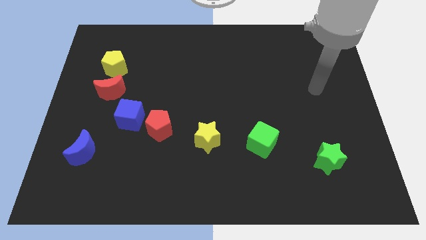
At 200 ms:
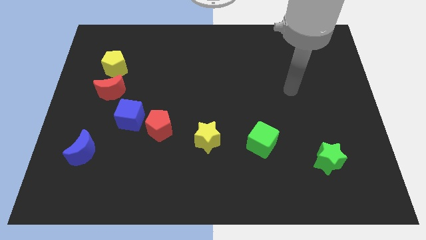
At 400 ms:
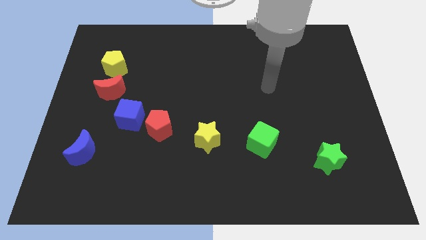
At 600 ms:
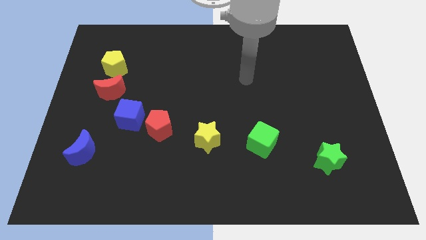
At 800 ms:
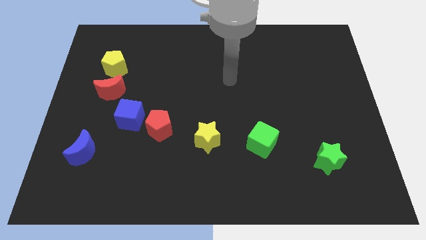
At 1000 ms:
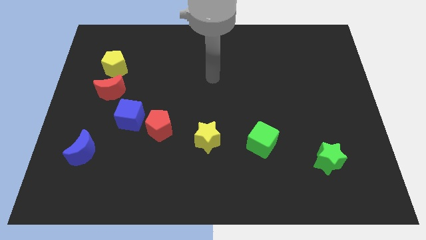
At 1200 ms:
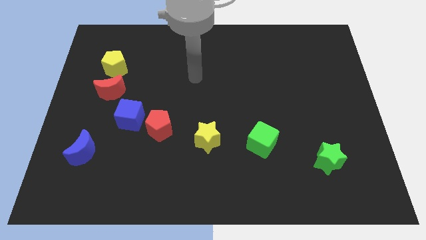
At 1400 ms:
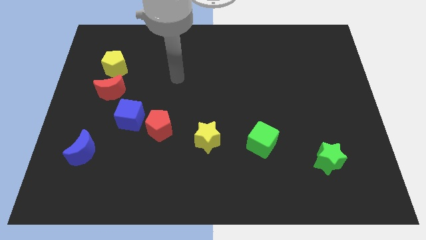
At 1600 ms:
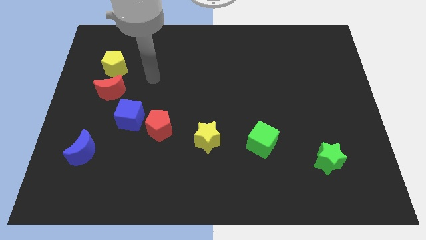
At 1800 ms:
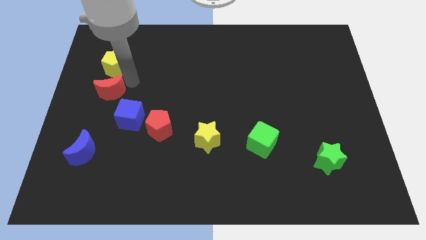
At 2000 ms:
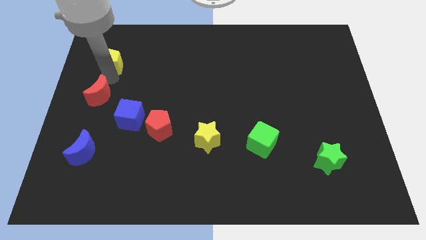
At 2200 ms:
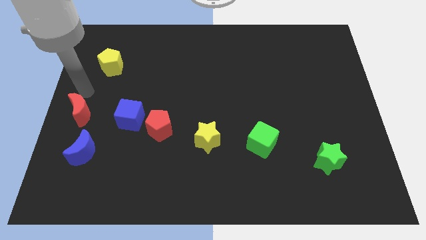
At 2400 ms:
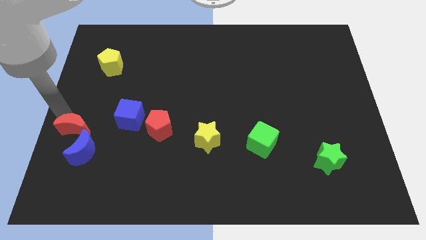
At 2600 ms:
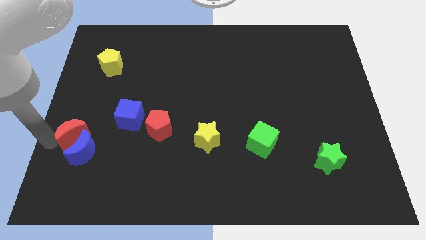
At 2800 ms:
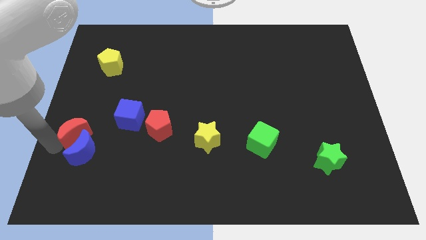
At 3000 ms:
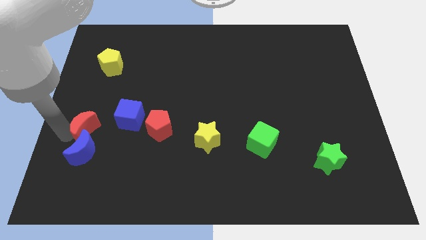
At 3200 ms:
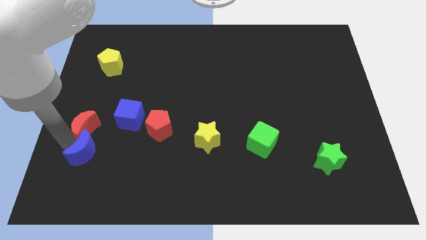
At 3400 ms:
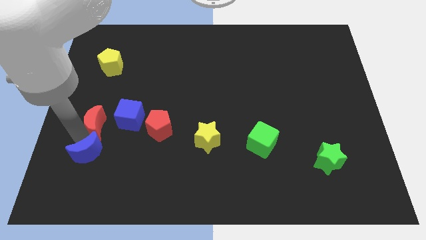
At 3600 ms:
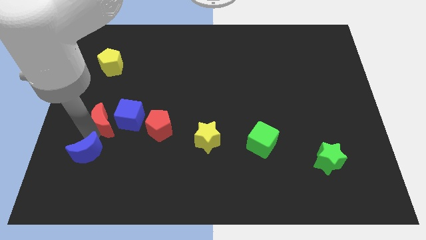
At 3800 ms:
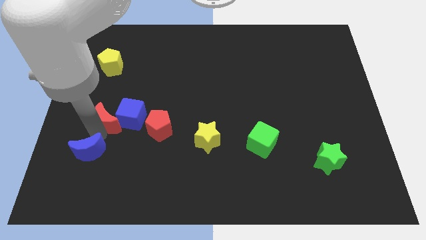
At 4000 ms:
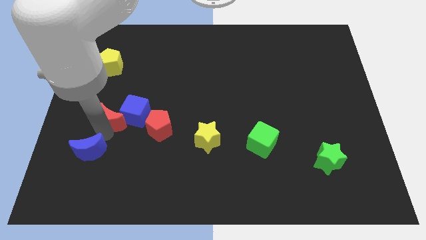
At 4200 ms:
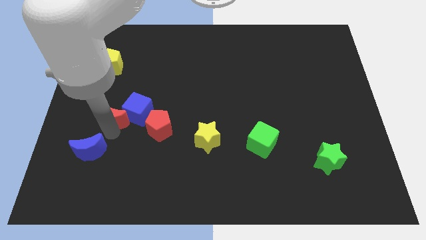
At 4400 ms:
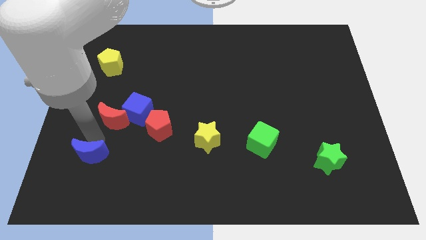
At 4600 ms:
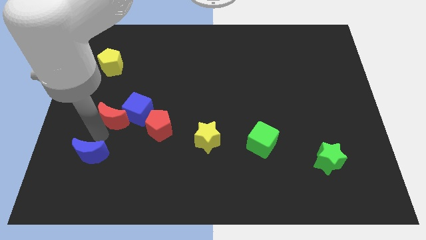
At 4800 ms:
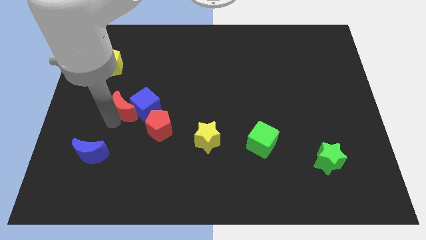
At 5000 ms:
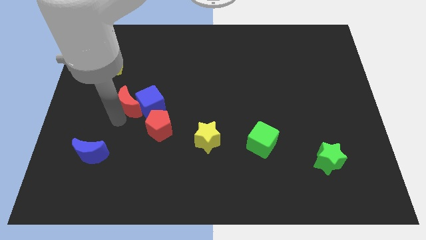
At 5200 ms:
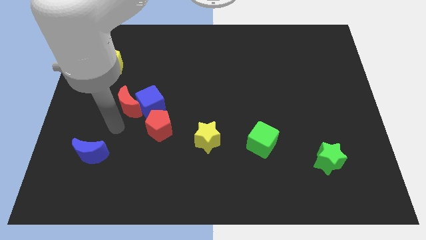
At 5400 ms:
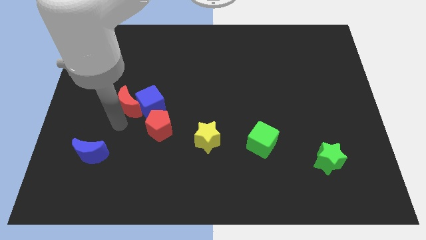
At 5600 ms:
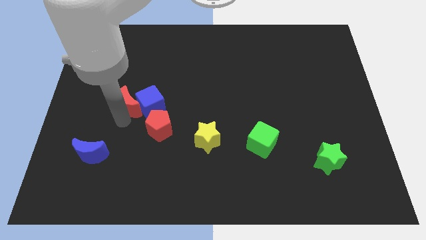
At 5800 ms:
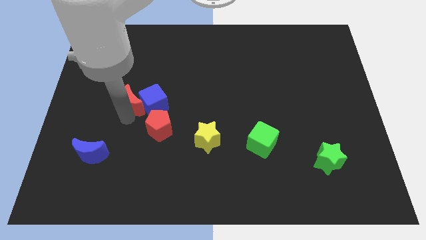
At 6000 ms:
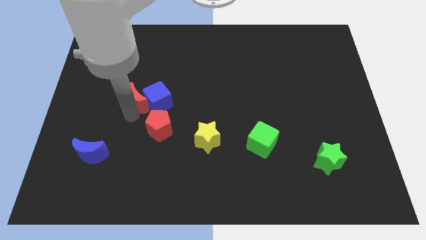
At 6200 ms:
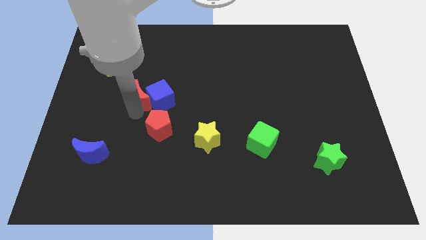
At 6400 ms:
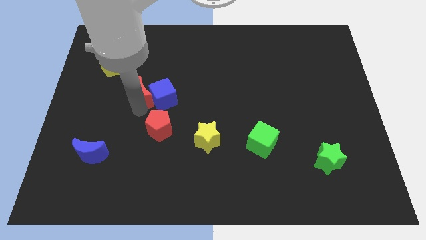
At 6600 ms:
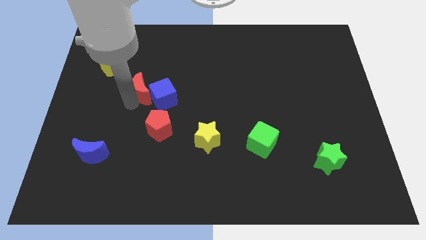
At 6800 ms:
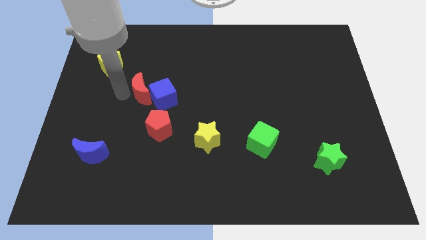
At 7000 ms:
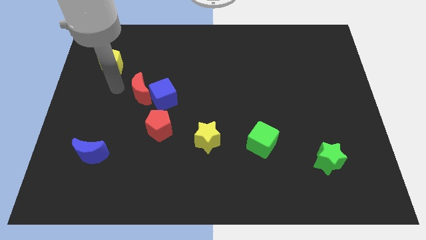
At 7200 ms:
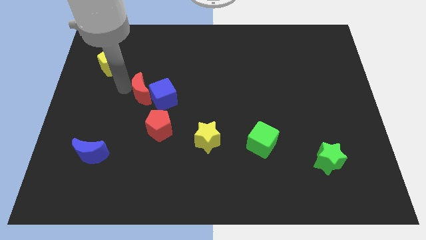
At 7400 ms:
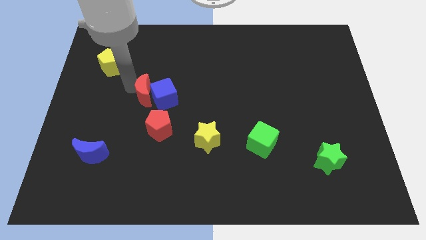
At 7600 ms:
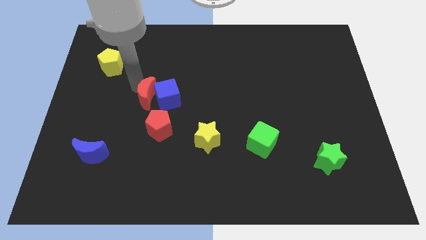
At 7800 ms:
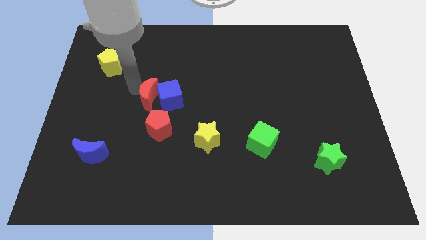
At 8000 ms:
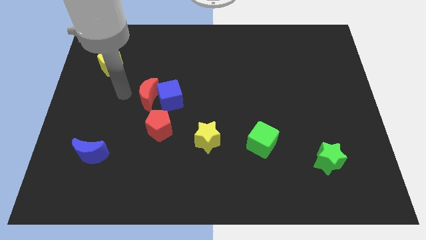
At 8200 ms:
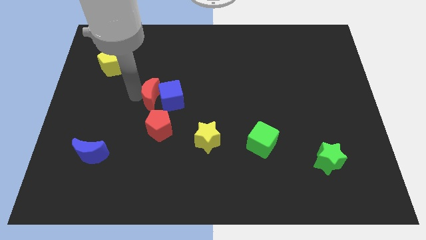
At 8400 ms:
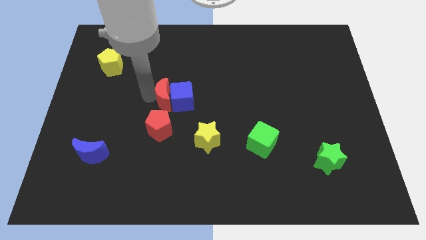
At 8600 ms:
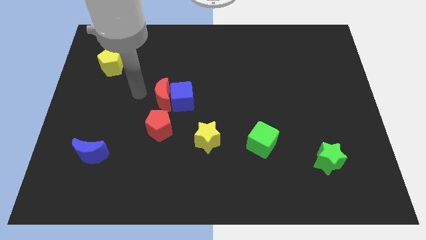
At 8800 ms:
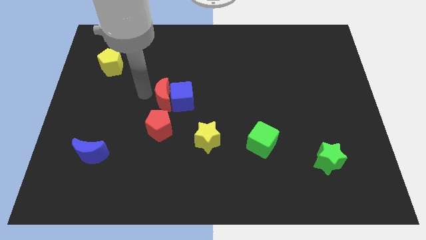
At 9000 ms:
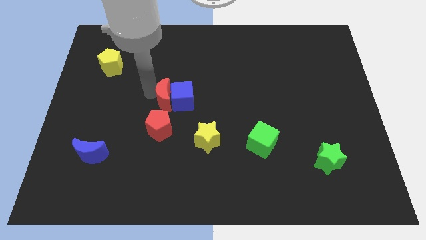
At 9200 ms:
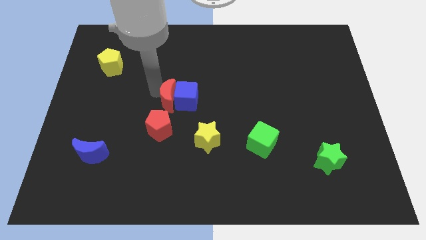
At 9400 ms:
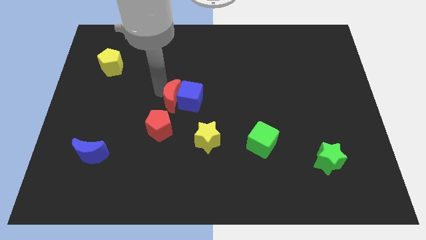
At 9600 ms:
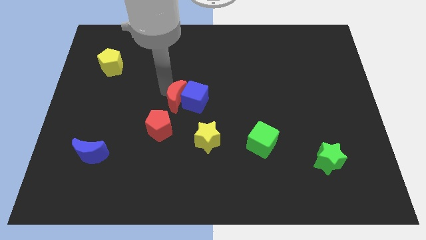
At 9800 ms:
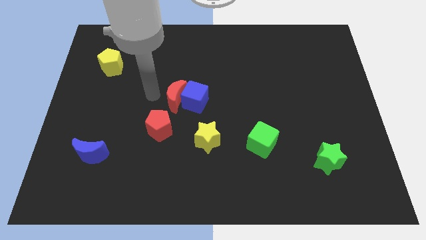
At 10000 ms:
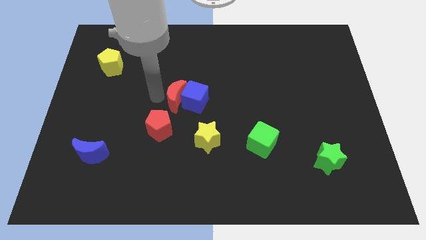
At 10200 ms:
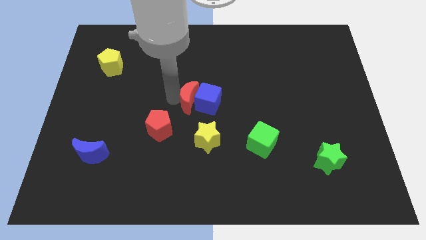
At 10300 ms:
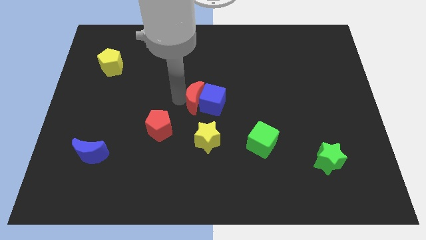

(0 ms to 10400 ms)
push the red moon to the right

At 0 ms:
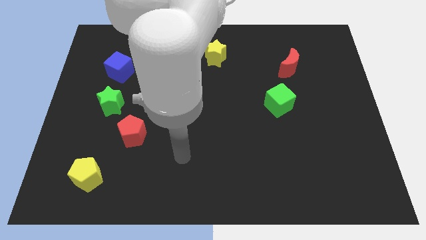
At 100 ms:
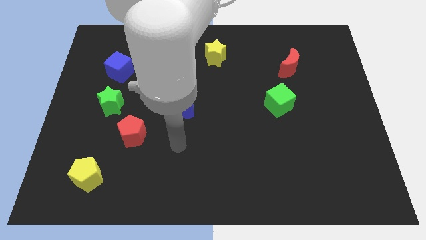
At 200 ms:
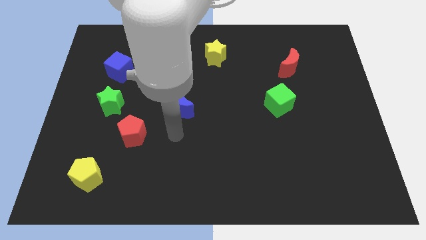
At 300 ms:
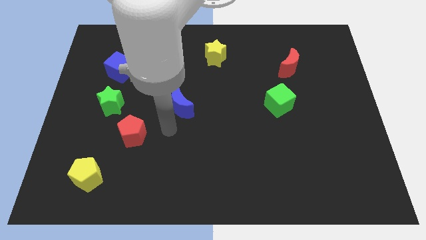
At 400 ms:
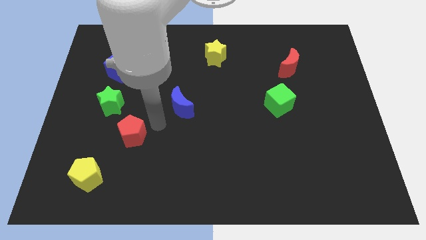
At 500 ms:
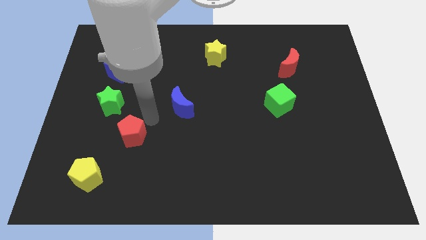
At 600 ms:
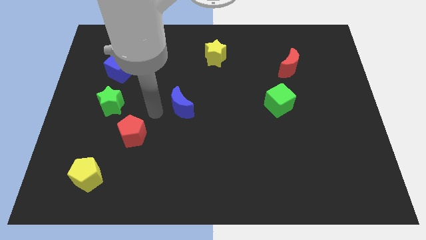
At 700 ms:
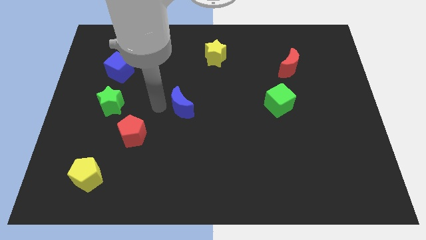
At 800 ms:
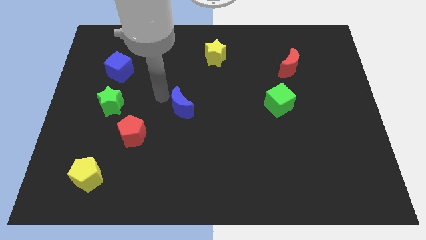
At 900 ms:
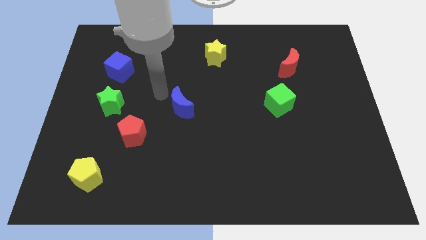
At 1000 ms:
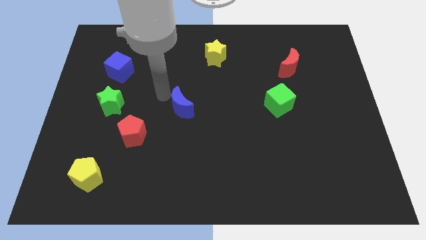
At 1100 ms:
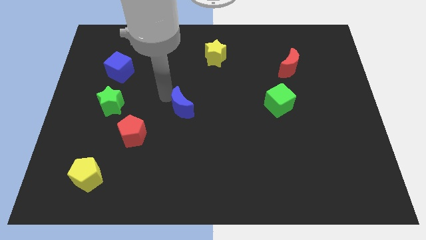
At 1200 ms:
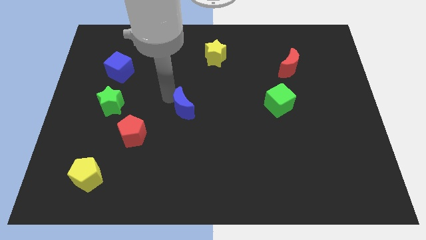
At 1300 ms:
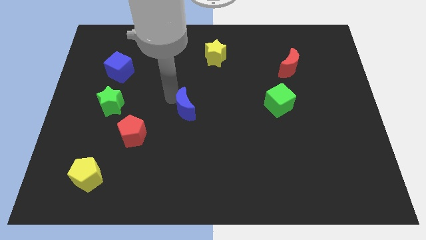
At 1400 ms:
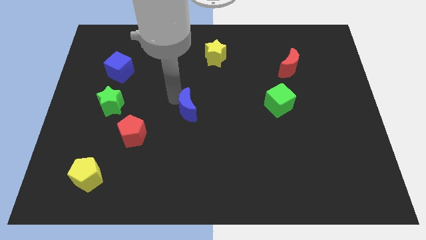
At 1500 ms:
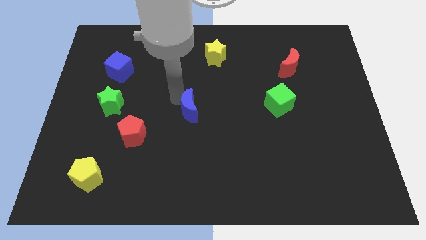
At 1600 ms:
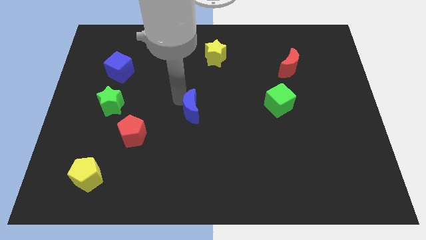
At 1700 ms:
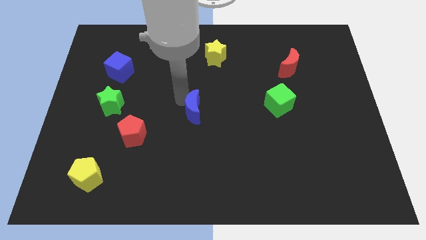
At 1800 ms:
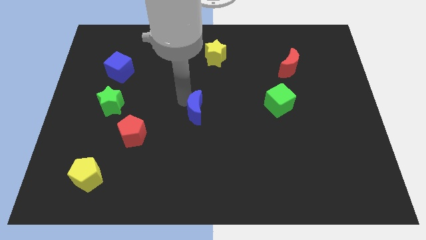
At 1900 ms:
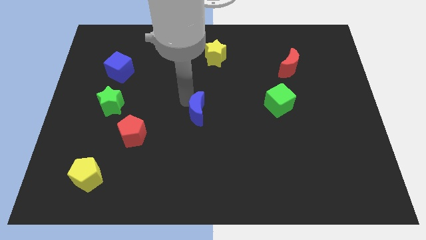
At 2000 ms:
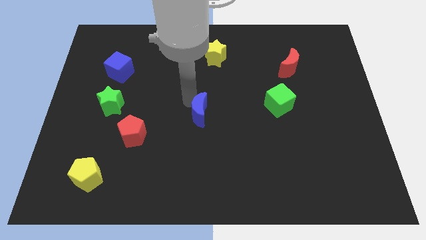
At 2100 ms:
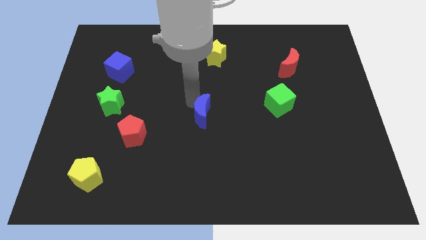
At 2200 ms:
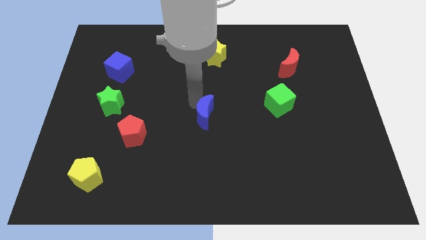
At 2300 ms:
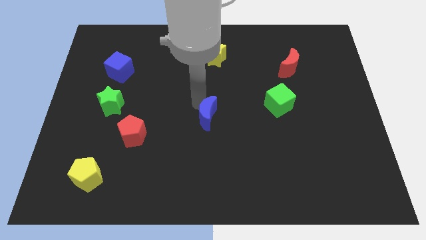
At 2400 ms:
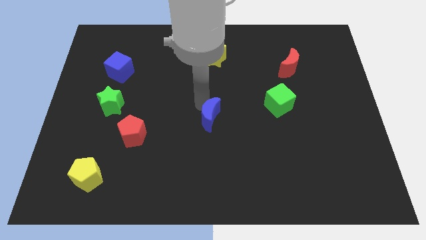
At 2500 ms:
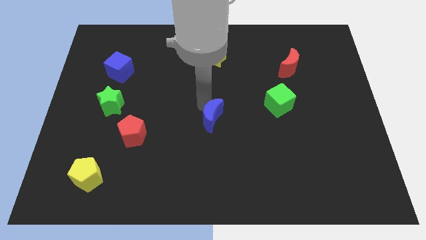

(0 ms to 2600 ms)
slightly push the blue moon downwards and then to the right

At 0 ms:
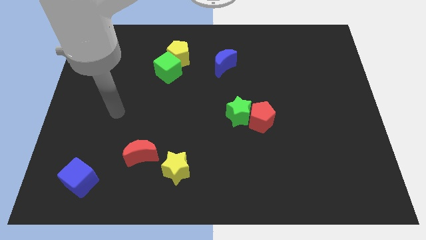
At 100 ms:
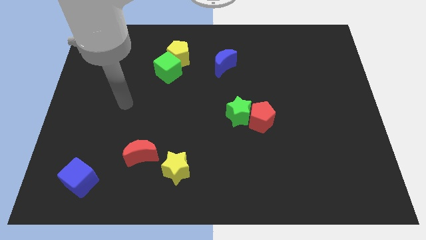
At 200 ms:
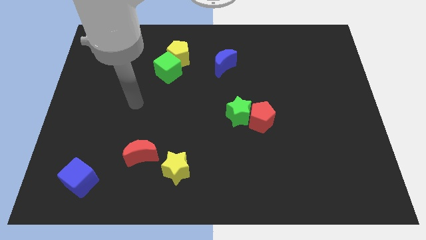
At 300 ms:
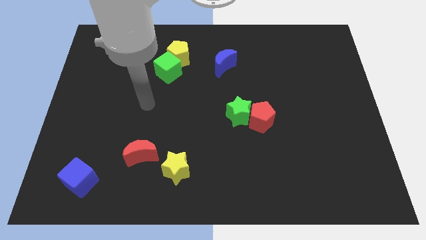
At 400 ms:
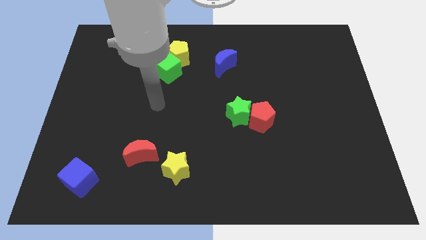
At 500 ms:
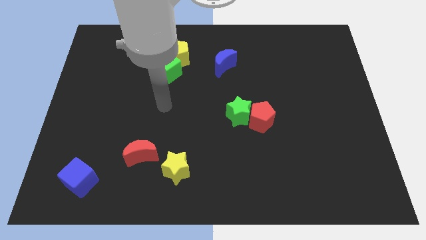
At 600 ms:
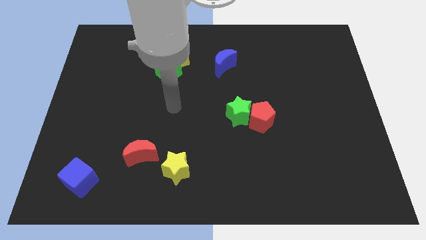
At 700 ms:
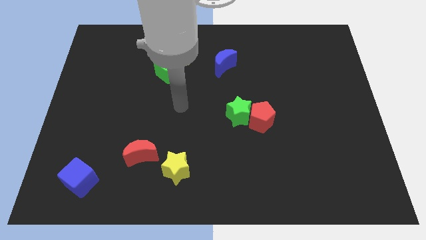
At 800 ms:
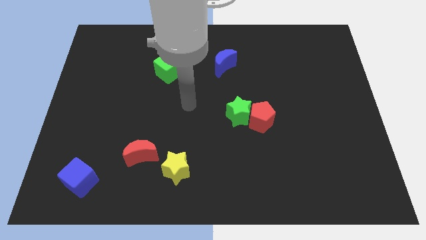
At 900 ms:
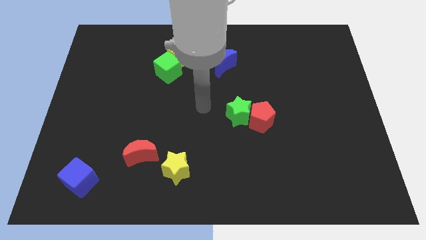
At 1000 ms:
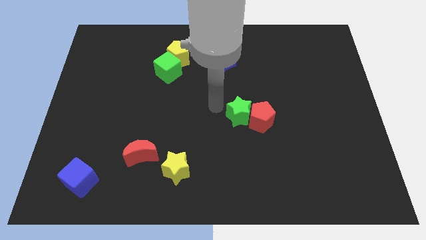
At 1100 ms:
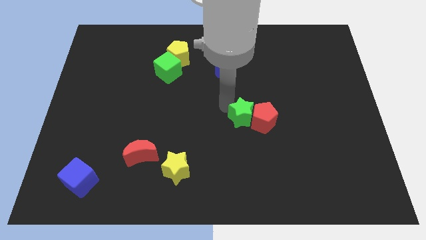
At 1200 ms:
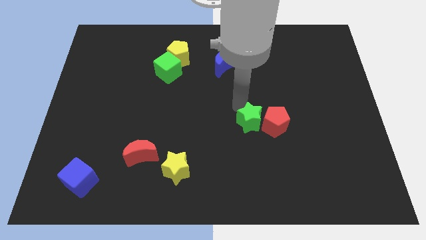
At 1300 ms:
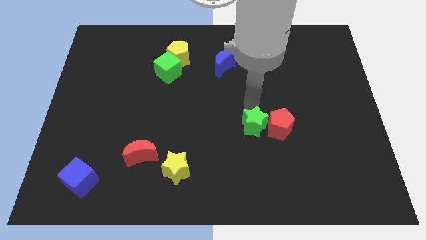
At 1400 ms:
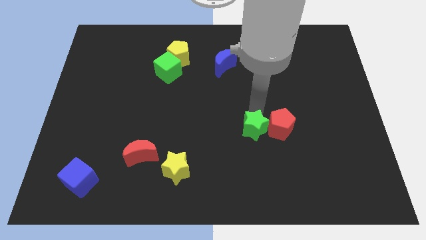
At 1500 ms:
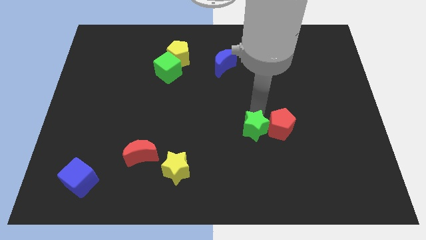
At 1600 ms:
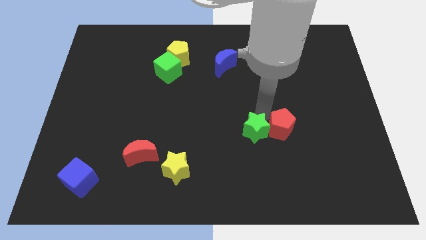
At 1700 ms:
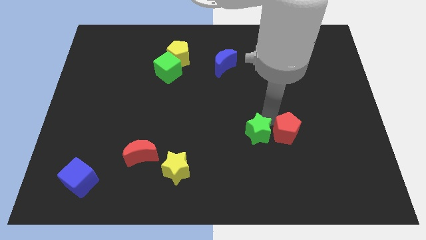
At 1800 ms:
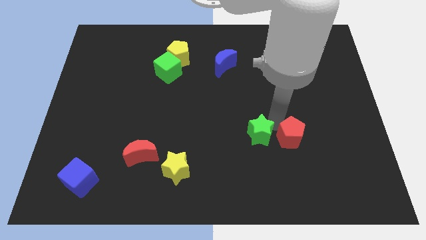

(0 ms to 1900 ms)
push the red pentagon slightly downwards and right
